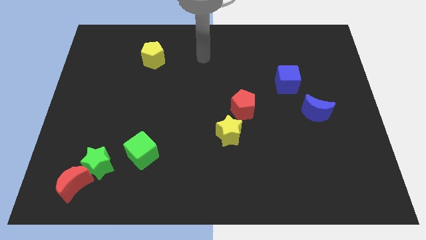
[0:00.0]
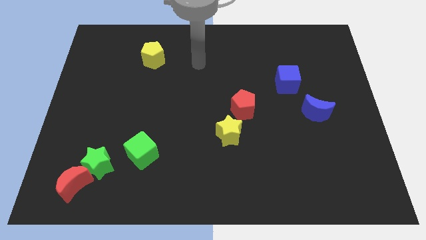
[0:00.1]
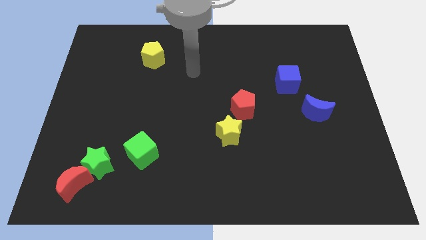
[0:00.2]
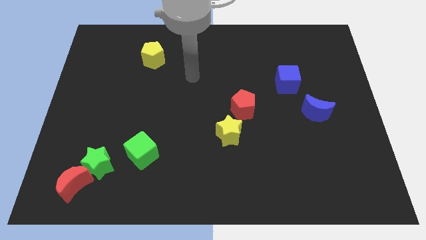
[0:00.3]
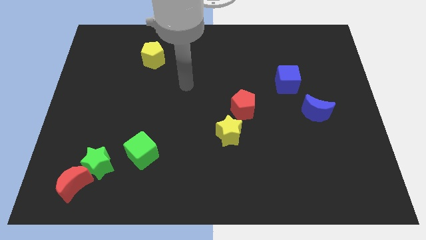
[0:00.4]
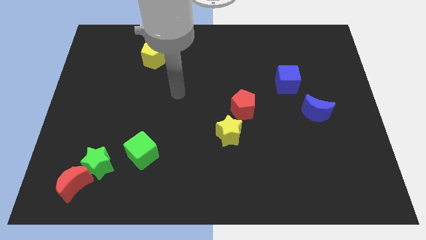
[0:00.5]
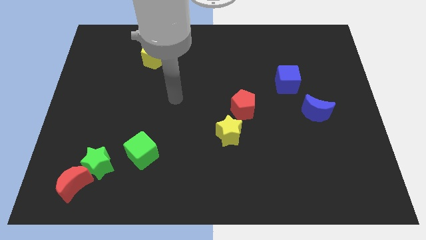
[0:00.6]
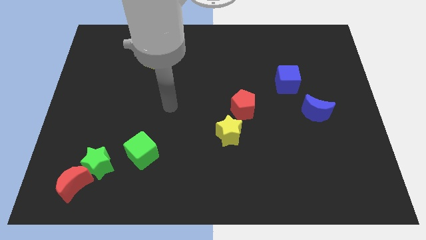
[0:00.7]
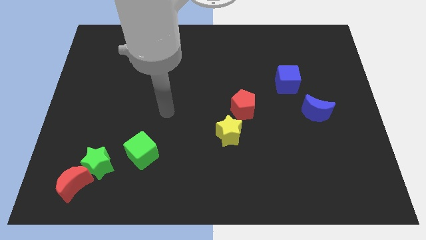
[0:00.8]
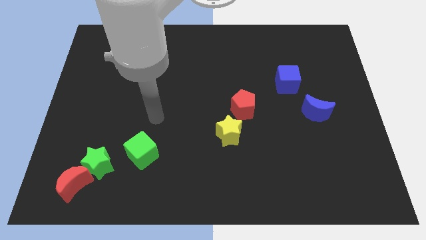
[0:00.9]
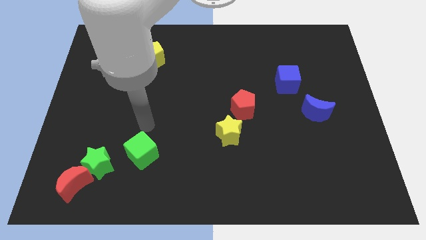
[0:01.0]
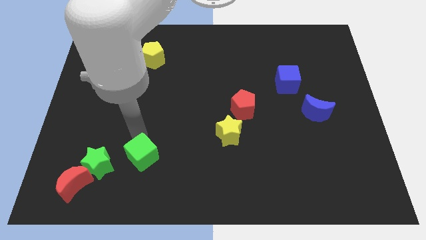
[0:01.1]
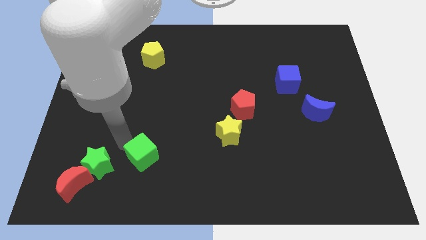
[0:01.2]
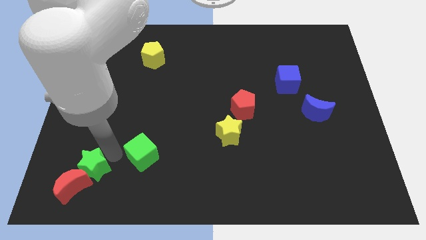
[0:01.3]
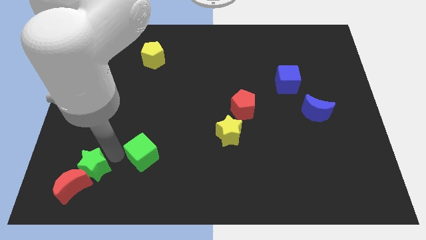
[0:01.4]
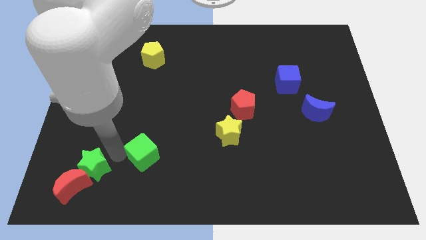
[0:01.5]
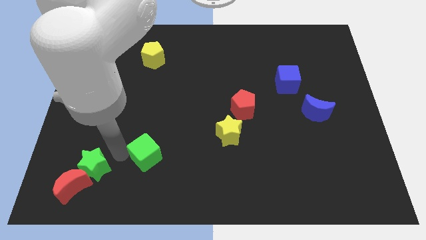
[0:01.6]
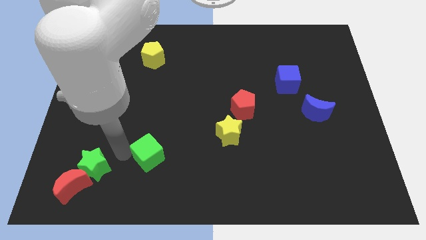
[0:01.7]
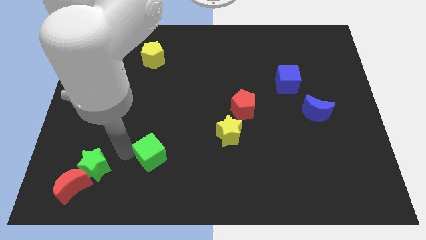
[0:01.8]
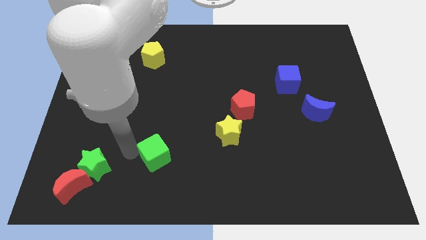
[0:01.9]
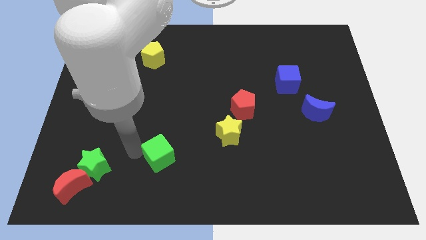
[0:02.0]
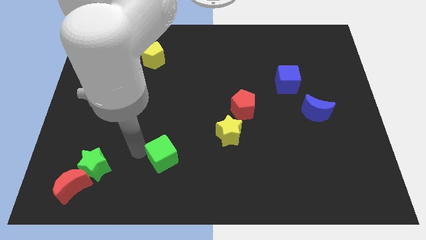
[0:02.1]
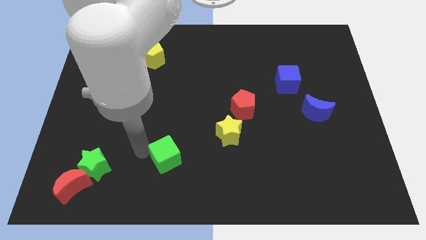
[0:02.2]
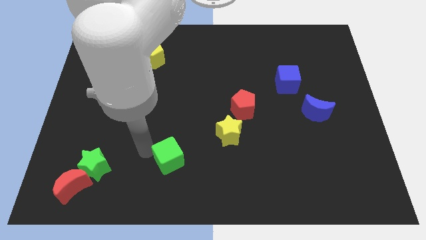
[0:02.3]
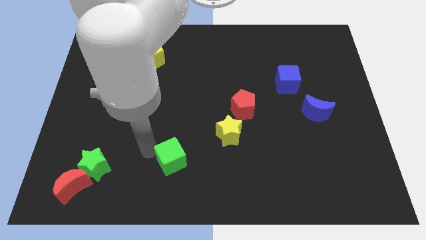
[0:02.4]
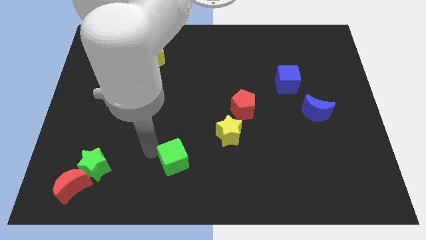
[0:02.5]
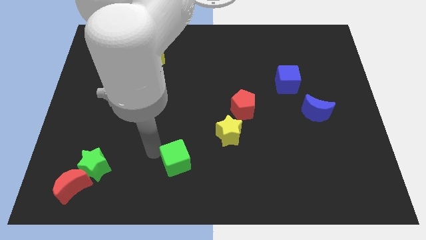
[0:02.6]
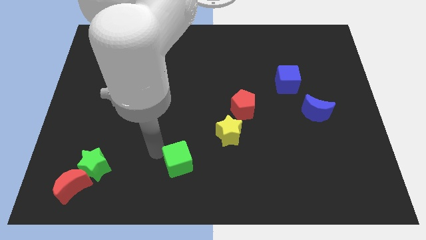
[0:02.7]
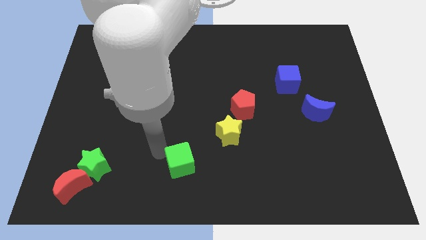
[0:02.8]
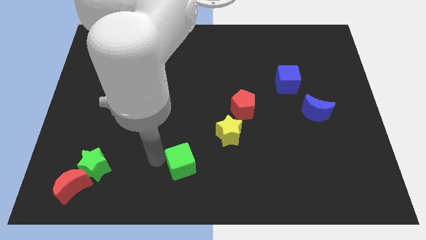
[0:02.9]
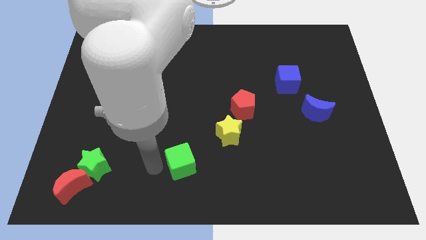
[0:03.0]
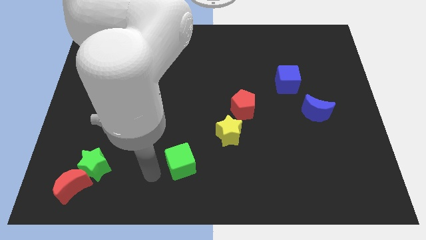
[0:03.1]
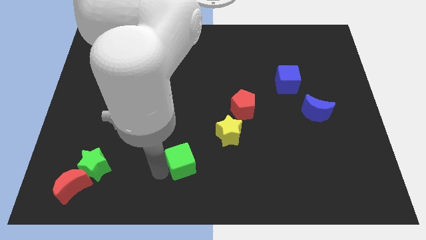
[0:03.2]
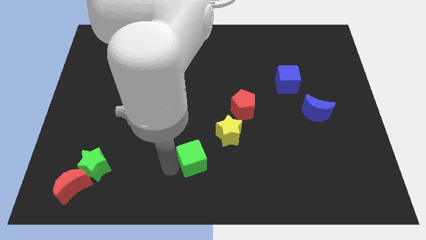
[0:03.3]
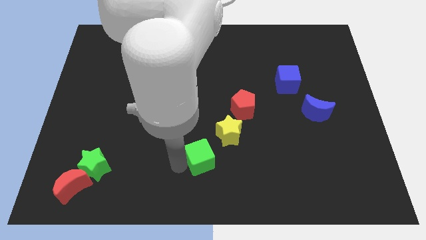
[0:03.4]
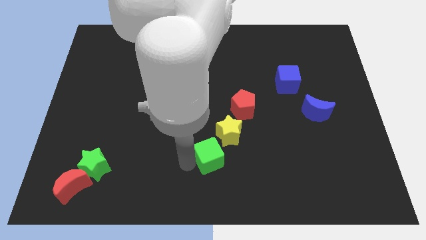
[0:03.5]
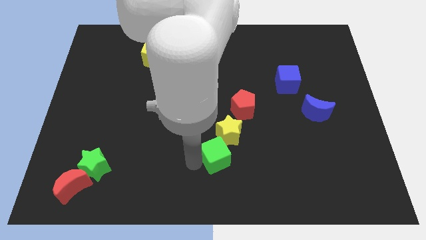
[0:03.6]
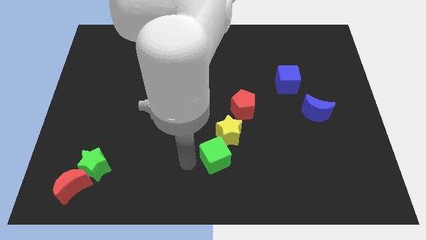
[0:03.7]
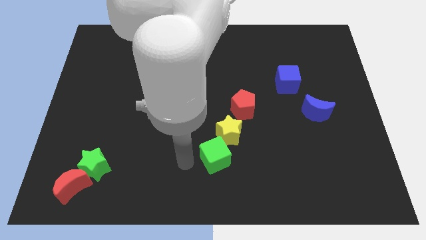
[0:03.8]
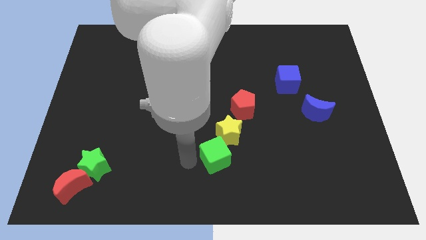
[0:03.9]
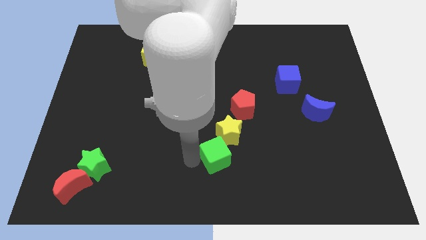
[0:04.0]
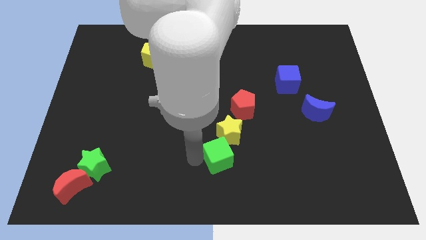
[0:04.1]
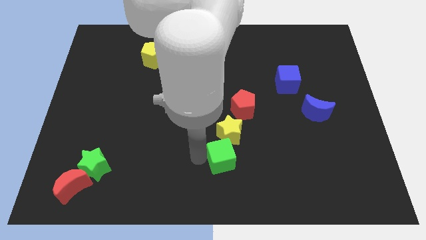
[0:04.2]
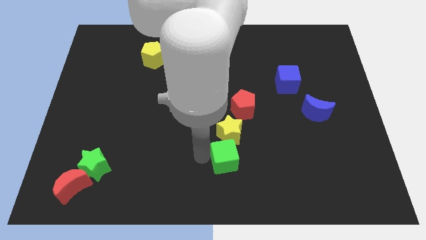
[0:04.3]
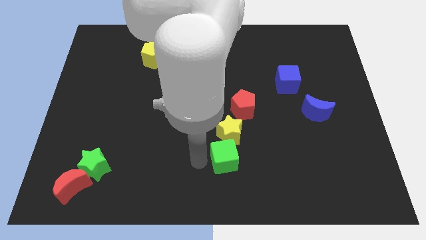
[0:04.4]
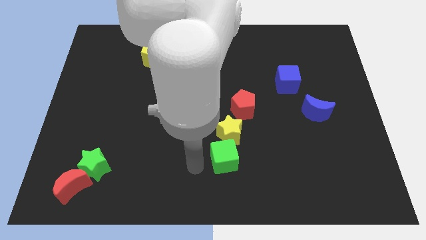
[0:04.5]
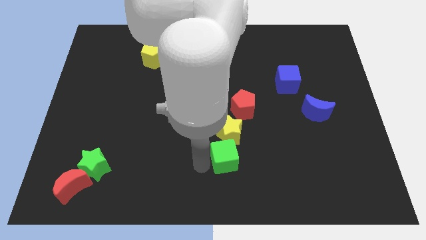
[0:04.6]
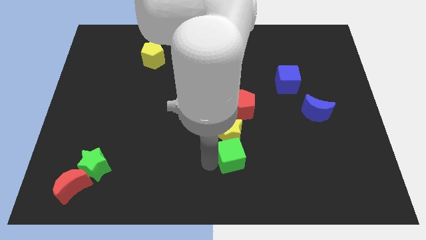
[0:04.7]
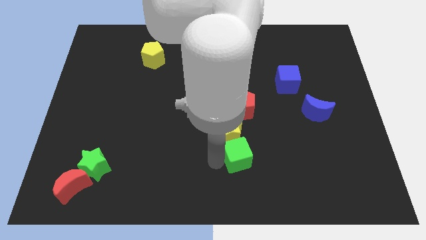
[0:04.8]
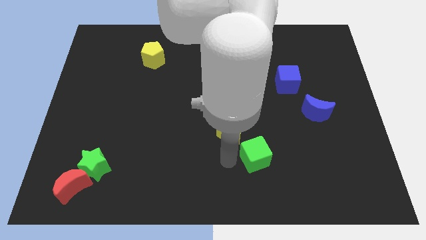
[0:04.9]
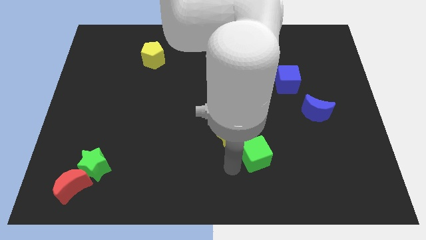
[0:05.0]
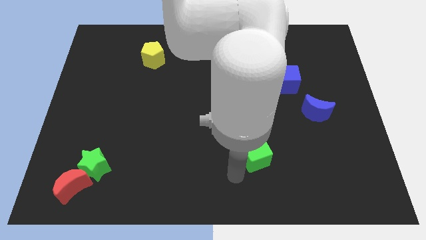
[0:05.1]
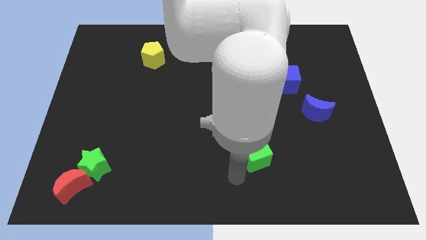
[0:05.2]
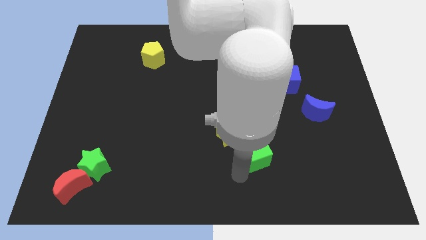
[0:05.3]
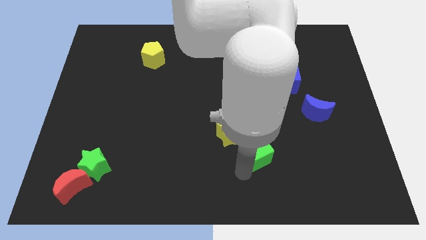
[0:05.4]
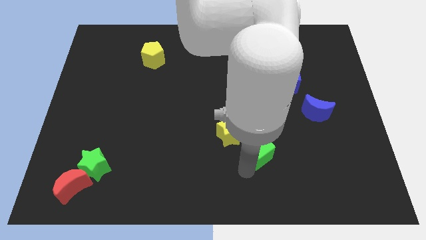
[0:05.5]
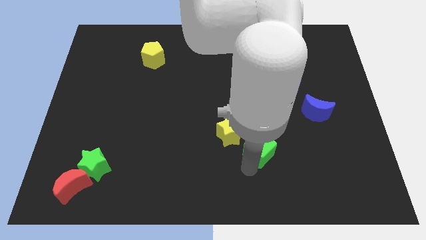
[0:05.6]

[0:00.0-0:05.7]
move the green cube to the right side of the yellow star

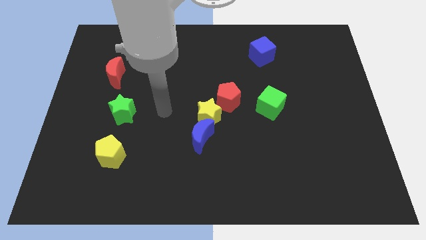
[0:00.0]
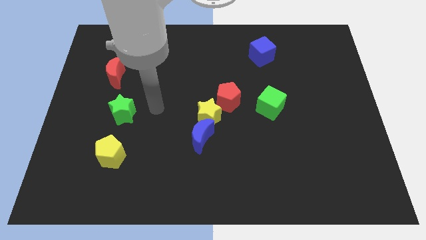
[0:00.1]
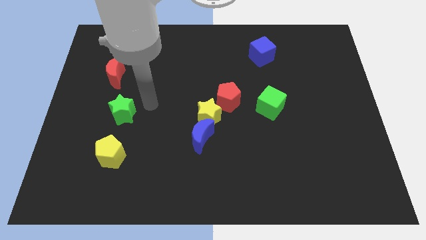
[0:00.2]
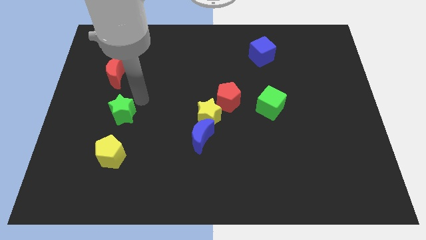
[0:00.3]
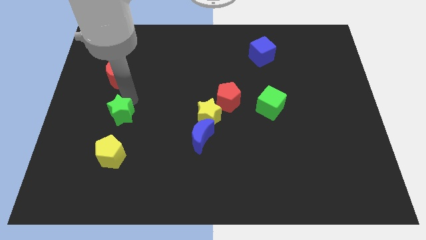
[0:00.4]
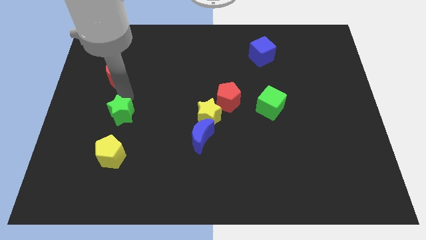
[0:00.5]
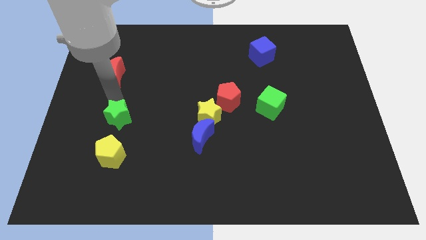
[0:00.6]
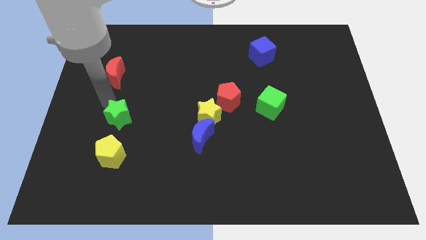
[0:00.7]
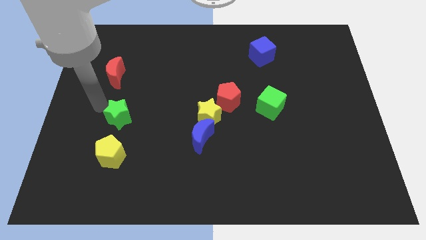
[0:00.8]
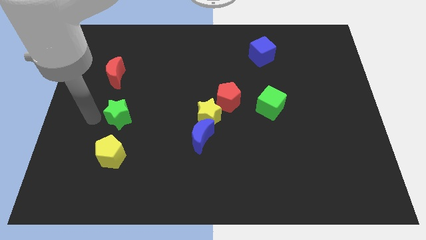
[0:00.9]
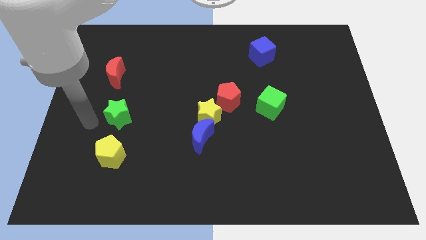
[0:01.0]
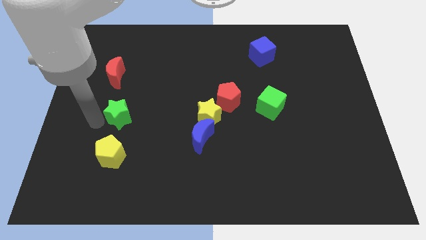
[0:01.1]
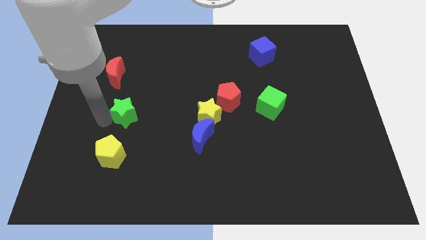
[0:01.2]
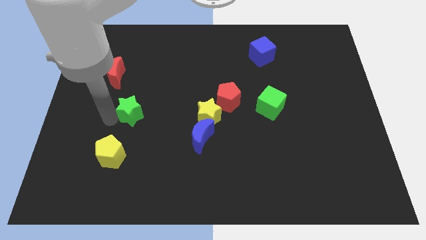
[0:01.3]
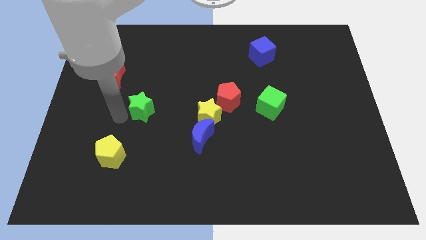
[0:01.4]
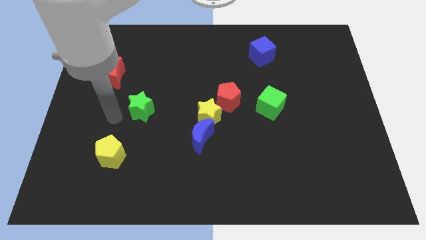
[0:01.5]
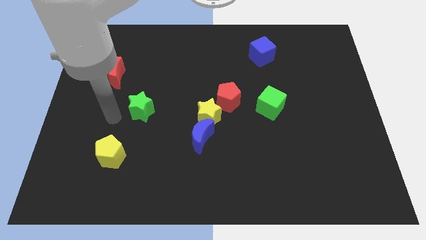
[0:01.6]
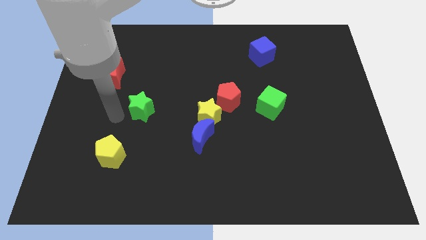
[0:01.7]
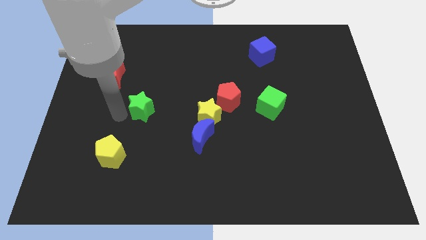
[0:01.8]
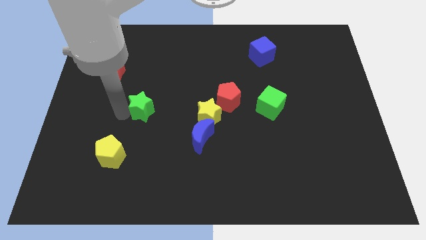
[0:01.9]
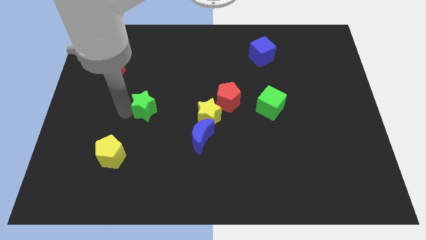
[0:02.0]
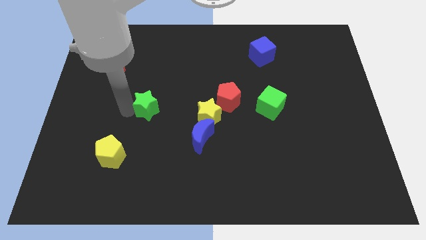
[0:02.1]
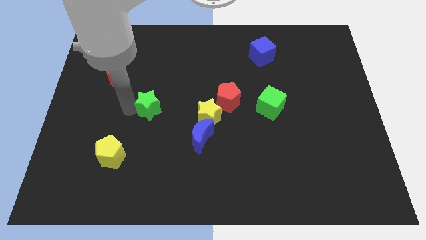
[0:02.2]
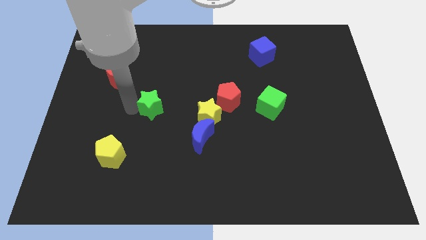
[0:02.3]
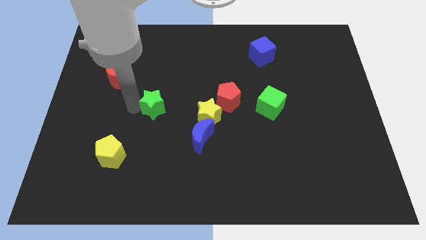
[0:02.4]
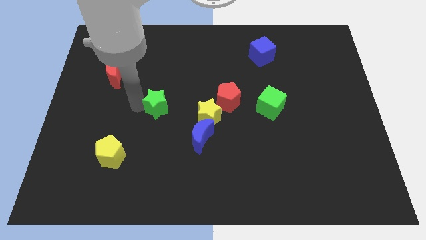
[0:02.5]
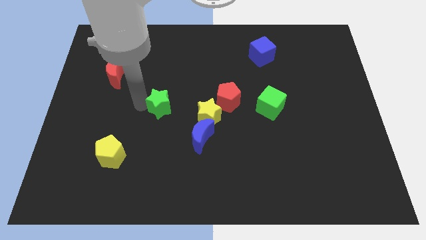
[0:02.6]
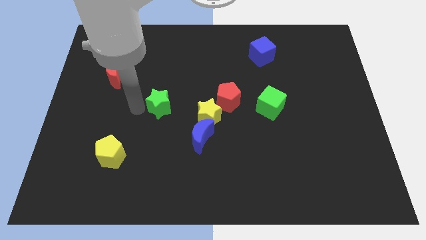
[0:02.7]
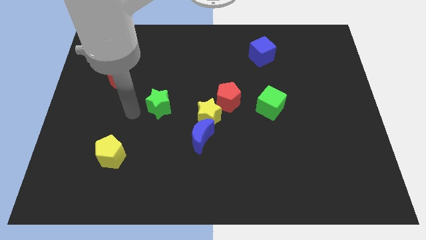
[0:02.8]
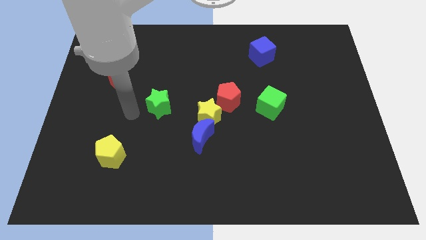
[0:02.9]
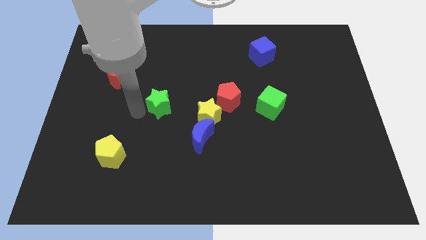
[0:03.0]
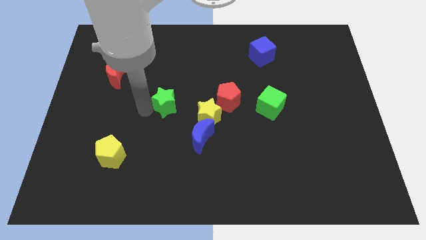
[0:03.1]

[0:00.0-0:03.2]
push the green star just left of the red pentagon
